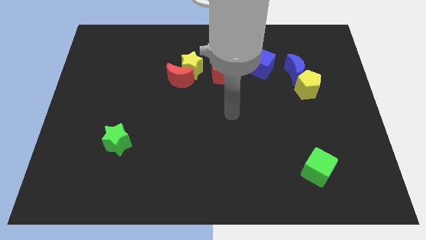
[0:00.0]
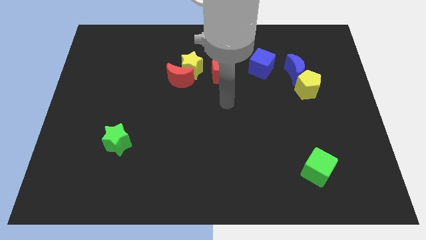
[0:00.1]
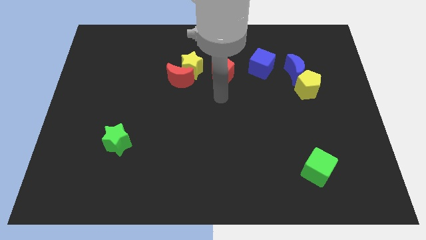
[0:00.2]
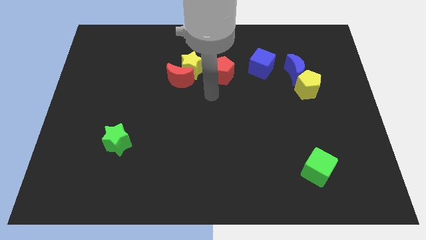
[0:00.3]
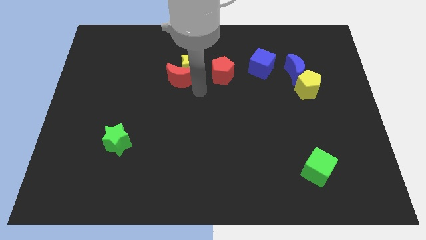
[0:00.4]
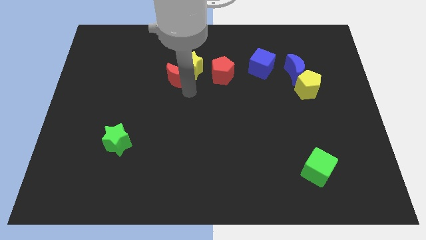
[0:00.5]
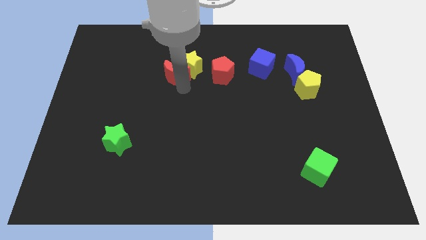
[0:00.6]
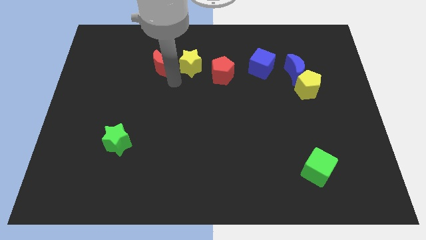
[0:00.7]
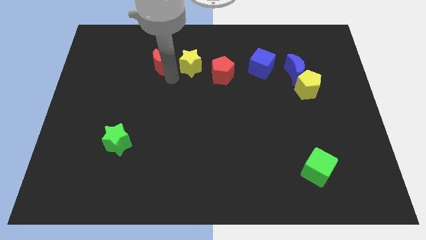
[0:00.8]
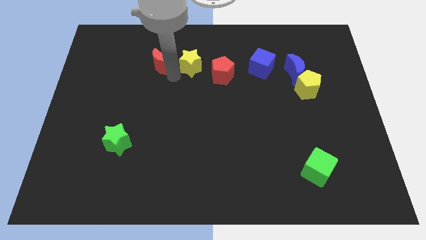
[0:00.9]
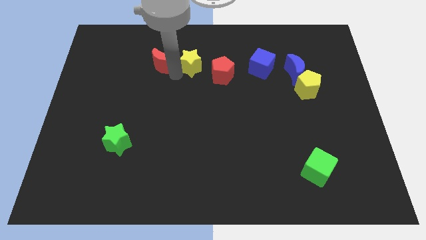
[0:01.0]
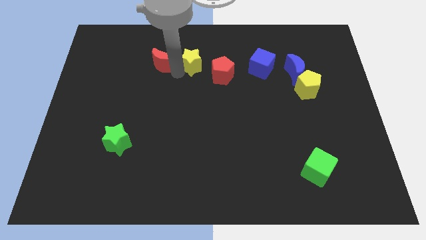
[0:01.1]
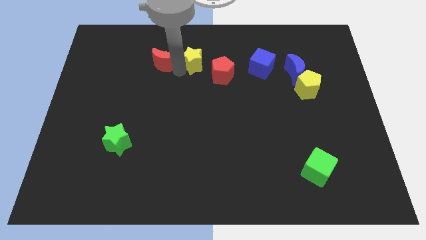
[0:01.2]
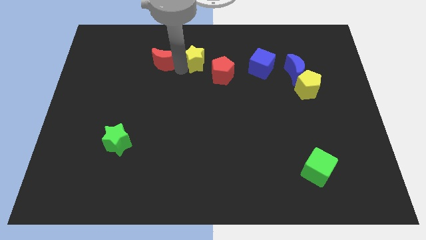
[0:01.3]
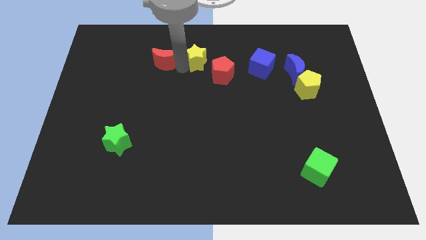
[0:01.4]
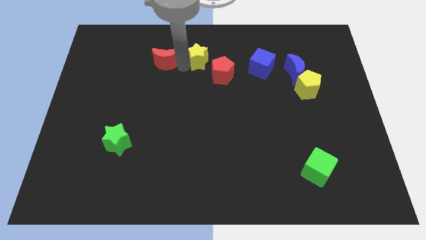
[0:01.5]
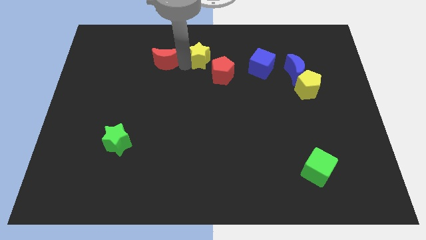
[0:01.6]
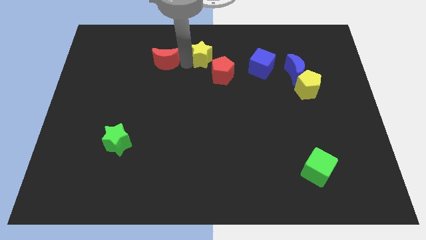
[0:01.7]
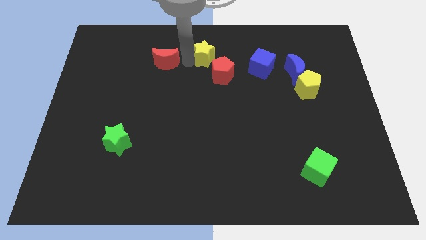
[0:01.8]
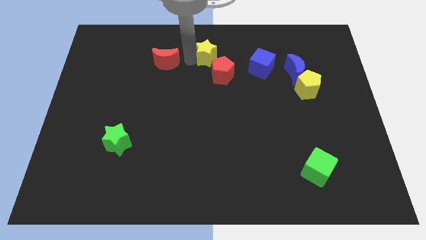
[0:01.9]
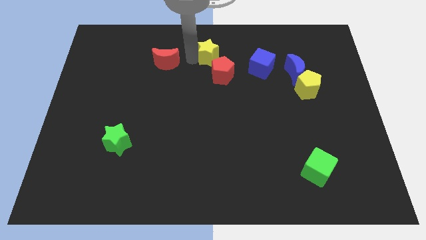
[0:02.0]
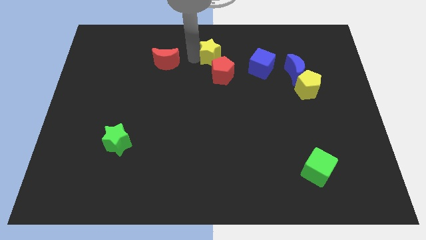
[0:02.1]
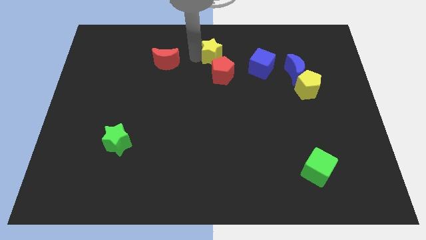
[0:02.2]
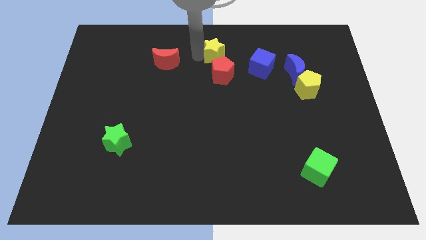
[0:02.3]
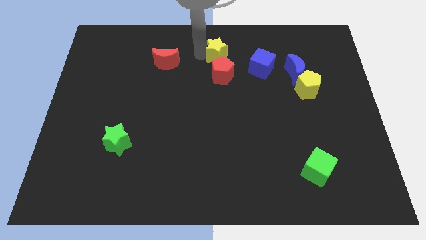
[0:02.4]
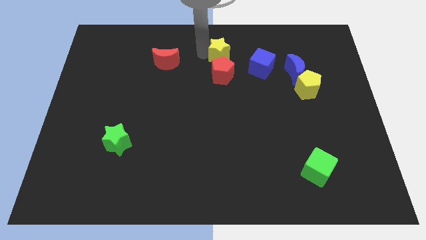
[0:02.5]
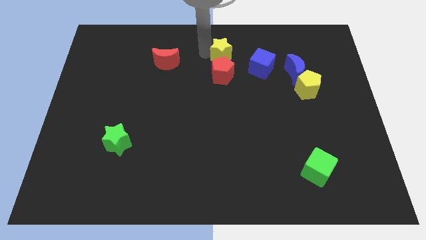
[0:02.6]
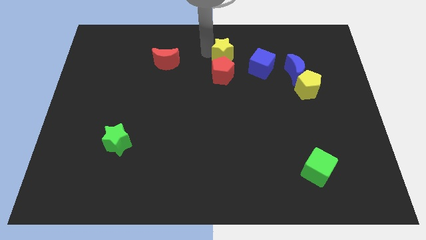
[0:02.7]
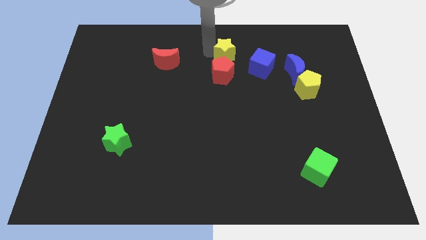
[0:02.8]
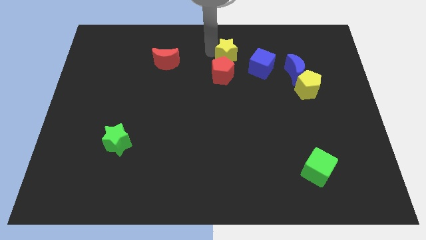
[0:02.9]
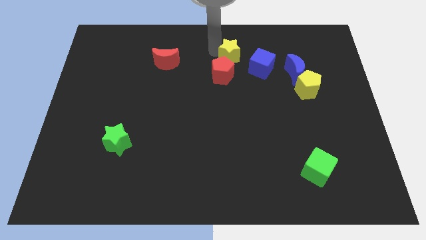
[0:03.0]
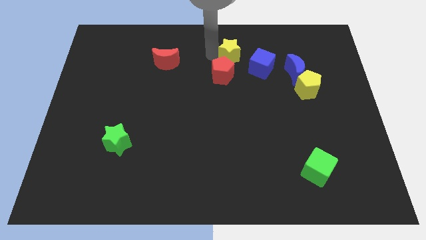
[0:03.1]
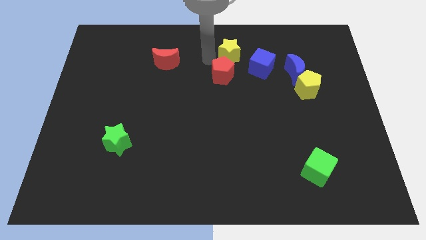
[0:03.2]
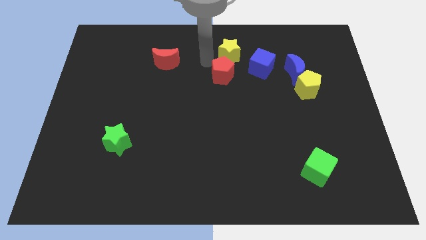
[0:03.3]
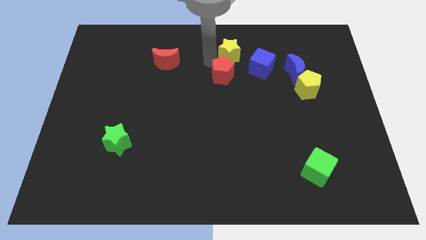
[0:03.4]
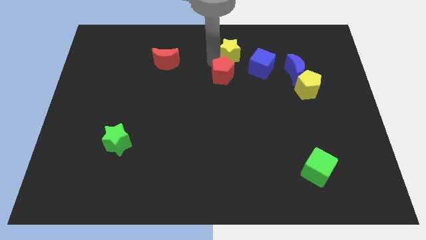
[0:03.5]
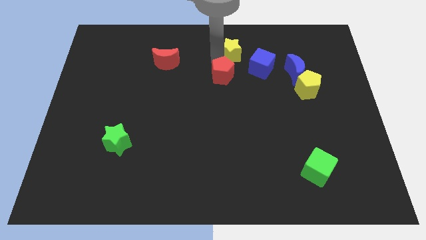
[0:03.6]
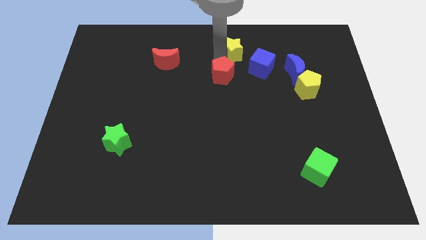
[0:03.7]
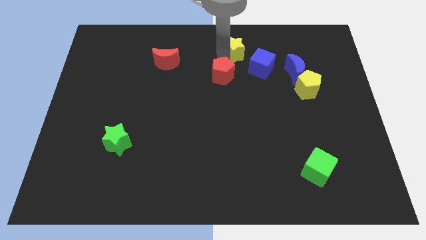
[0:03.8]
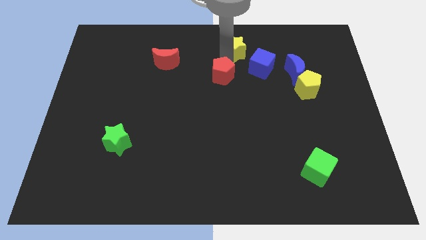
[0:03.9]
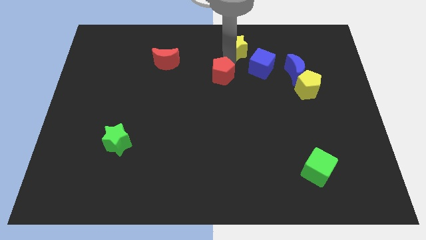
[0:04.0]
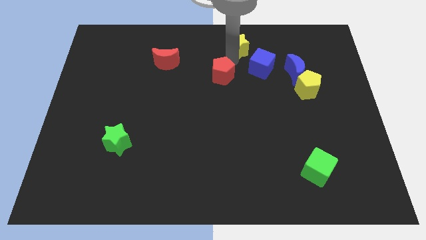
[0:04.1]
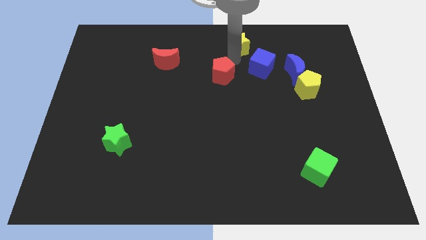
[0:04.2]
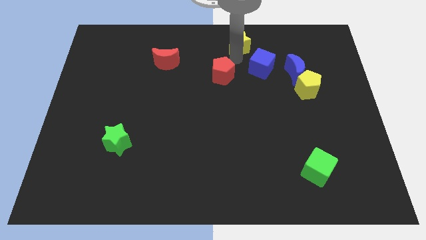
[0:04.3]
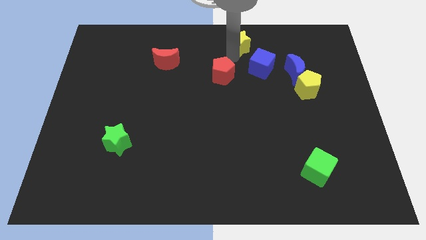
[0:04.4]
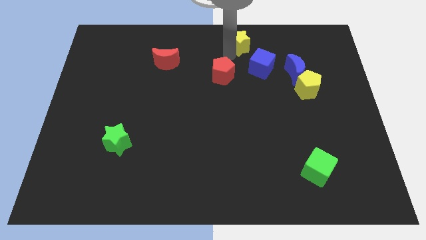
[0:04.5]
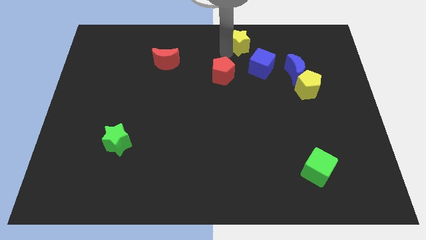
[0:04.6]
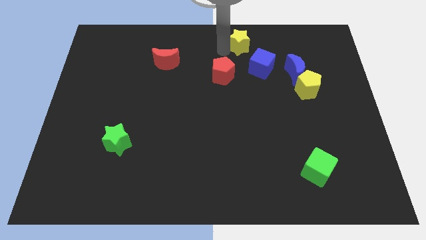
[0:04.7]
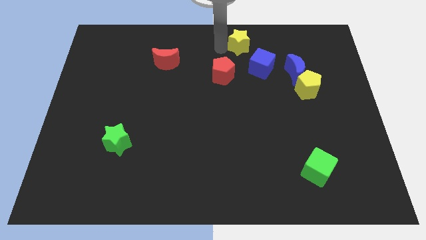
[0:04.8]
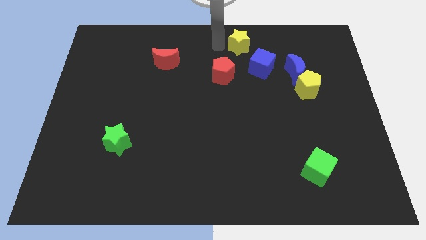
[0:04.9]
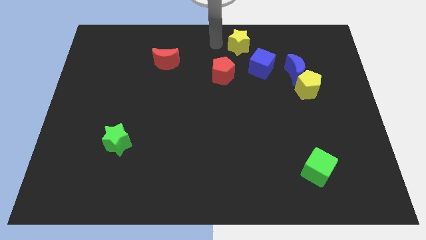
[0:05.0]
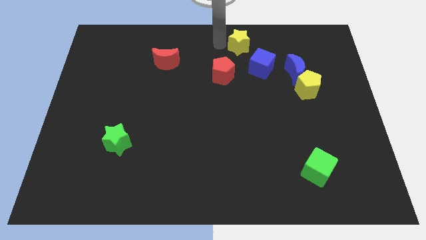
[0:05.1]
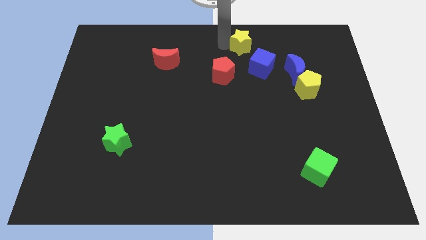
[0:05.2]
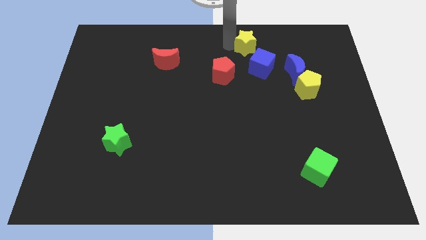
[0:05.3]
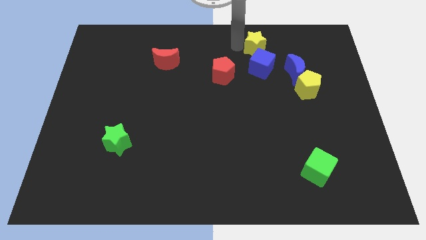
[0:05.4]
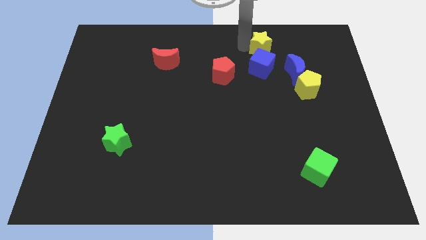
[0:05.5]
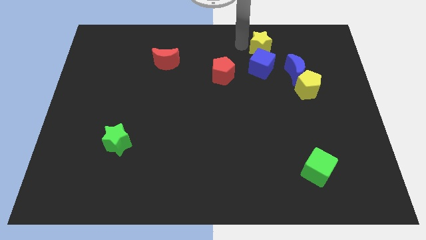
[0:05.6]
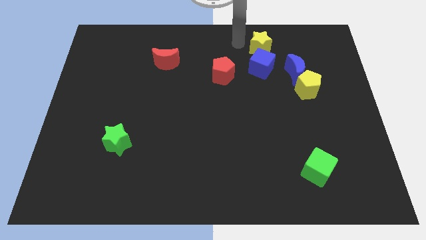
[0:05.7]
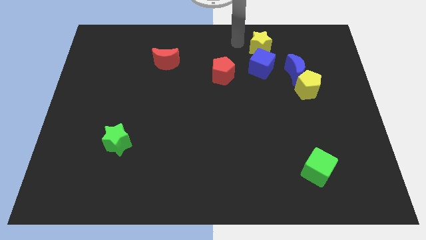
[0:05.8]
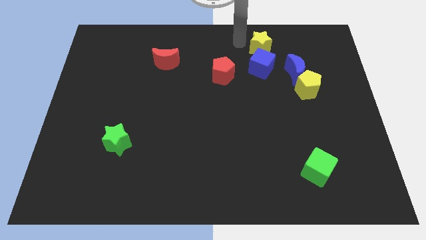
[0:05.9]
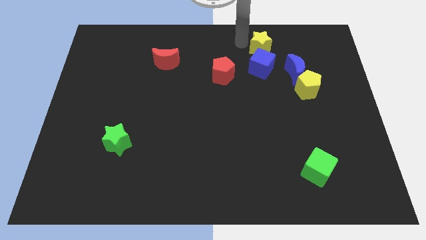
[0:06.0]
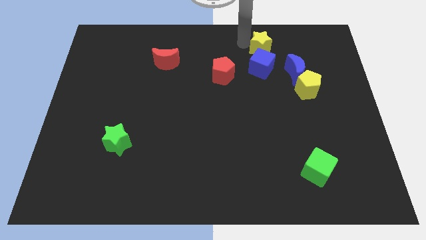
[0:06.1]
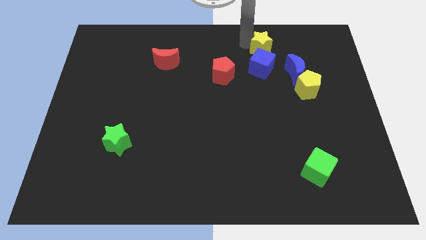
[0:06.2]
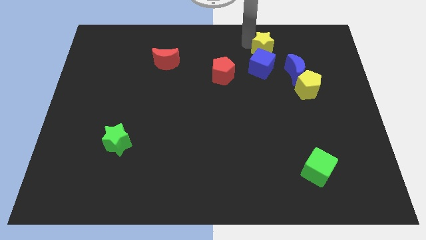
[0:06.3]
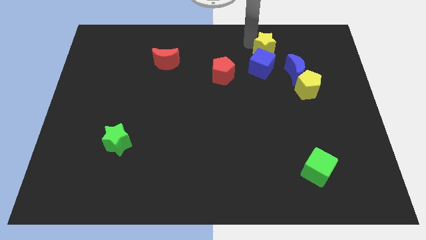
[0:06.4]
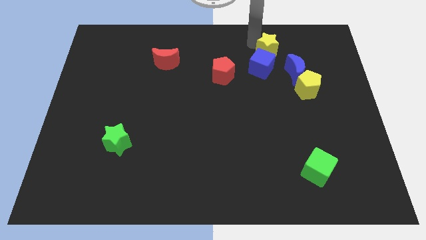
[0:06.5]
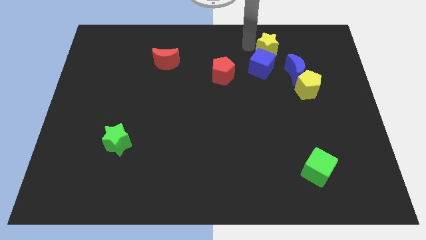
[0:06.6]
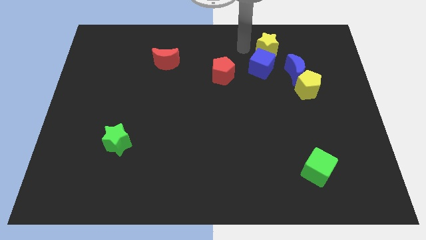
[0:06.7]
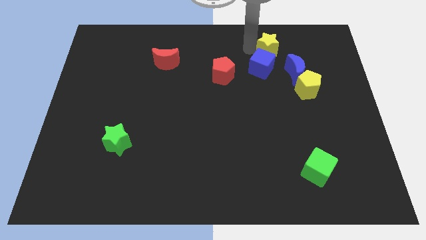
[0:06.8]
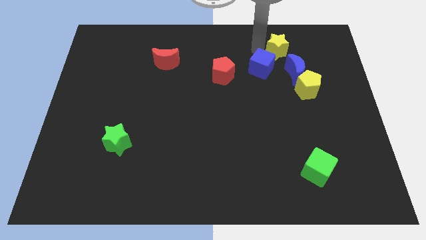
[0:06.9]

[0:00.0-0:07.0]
push the yellow star to the right

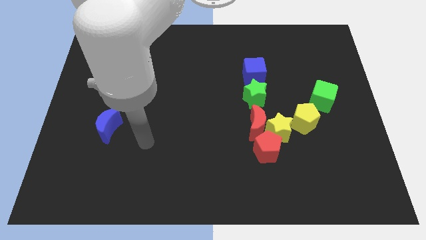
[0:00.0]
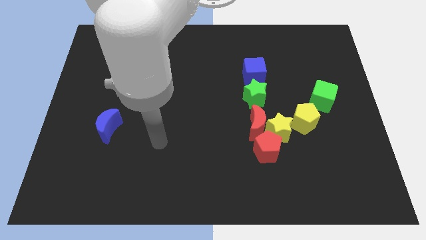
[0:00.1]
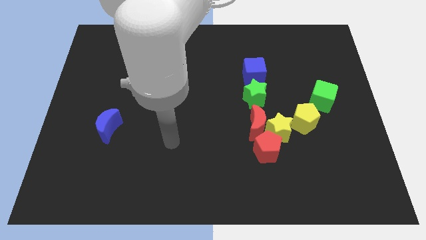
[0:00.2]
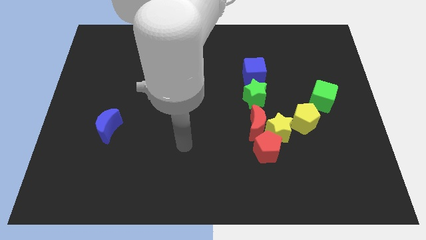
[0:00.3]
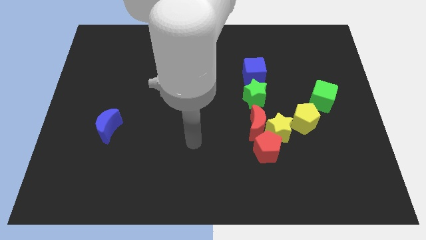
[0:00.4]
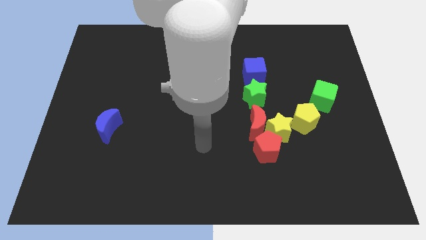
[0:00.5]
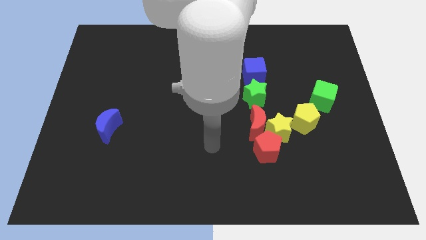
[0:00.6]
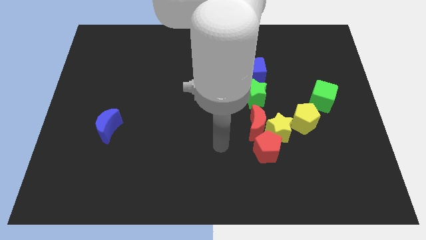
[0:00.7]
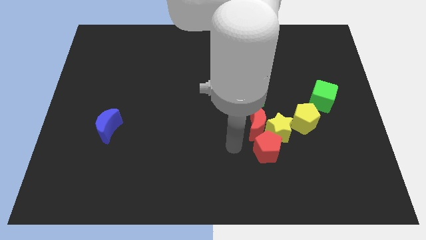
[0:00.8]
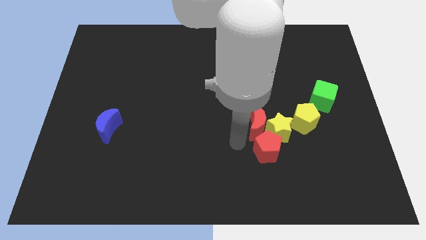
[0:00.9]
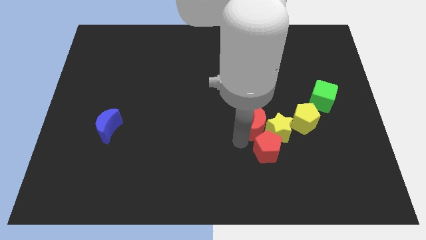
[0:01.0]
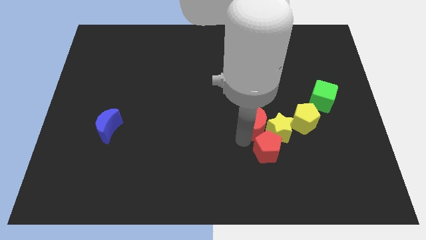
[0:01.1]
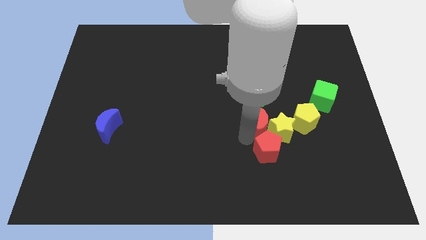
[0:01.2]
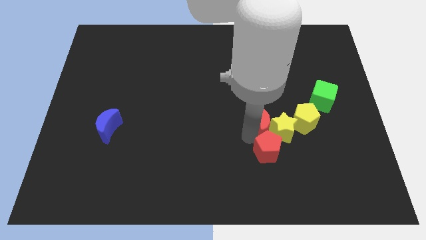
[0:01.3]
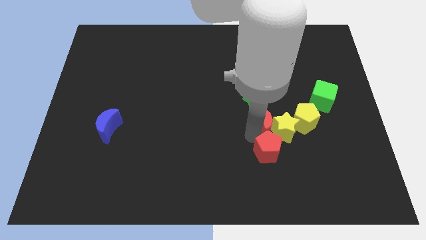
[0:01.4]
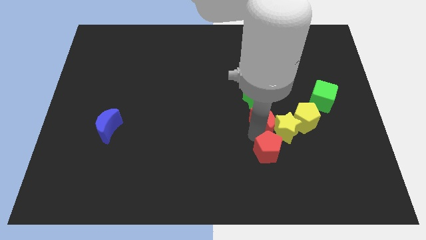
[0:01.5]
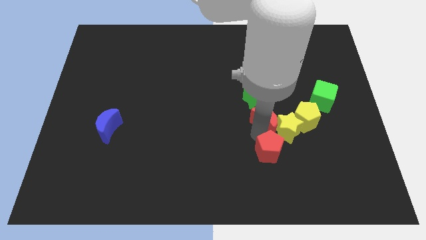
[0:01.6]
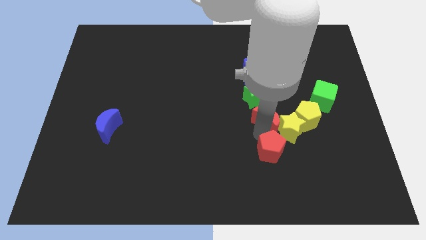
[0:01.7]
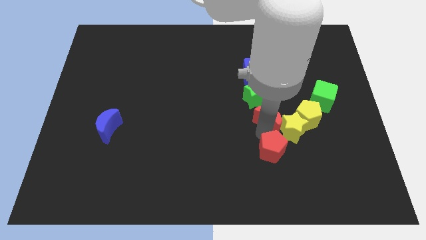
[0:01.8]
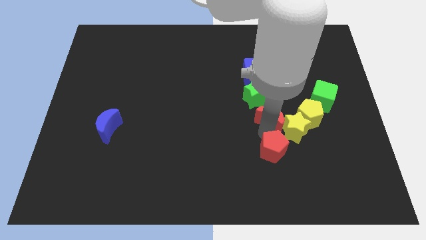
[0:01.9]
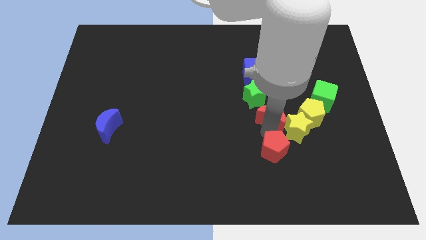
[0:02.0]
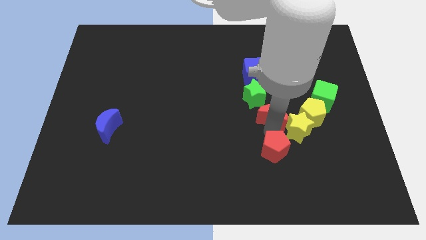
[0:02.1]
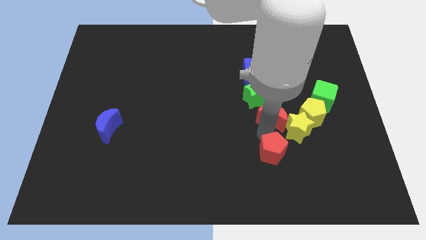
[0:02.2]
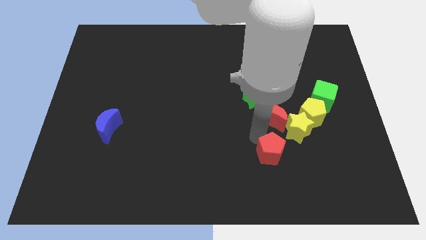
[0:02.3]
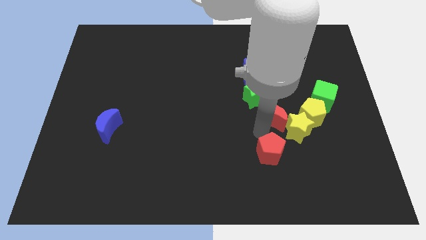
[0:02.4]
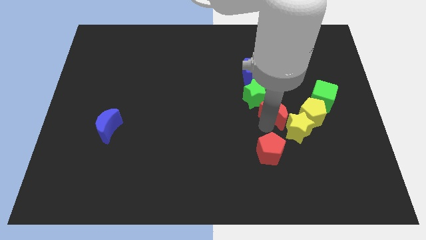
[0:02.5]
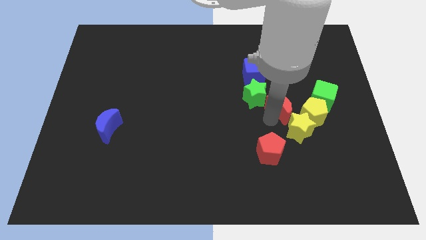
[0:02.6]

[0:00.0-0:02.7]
push the red moon diagonally upwards and right a little bit
